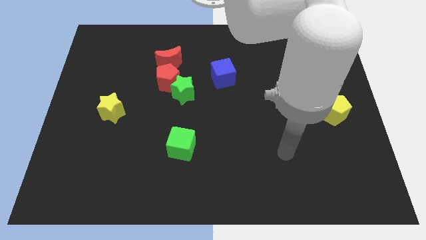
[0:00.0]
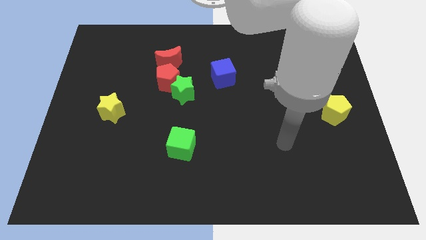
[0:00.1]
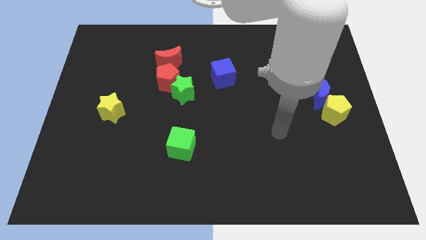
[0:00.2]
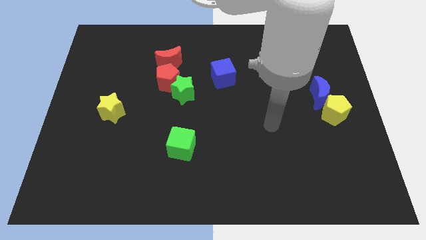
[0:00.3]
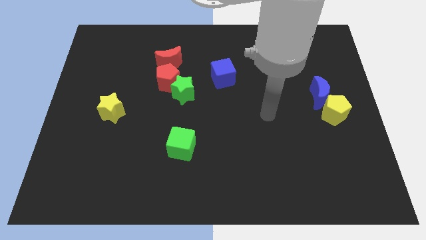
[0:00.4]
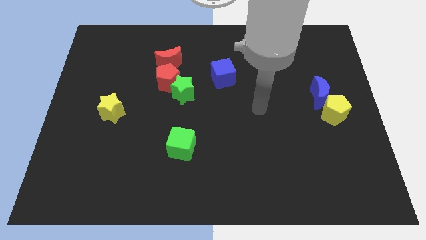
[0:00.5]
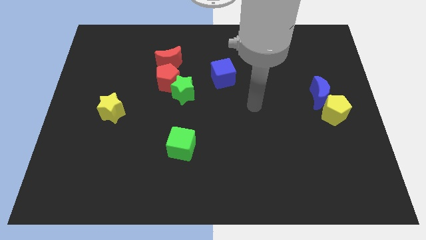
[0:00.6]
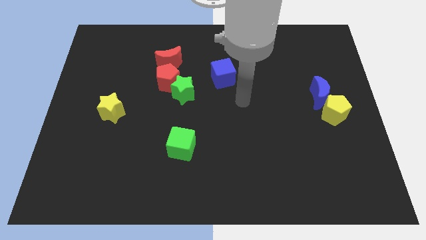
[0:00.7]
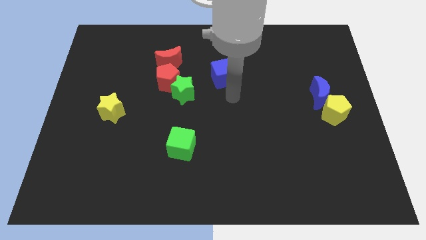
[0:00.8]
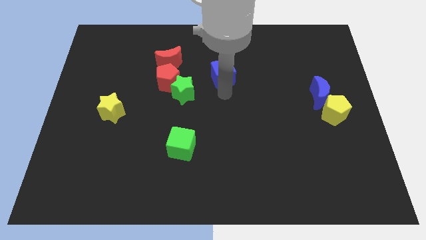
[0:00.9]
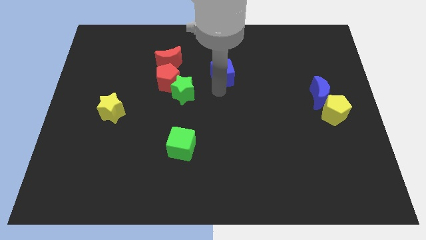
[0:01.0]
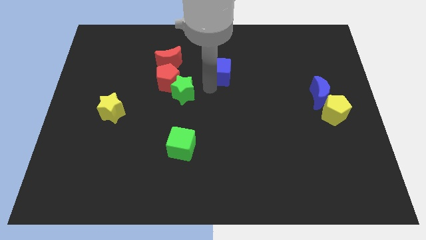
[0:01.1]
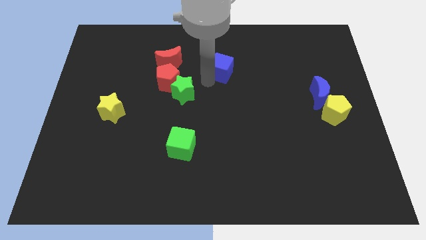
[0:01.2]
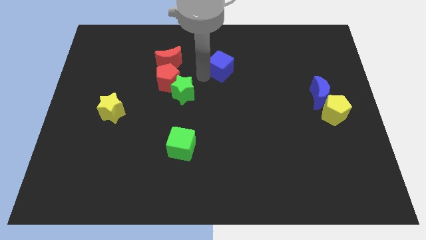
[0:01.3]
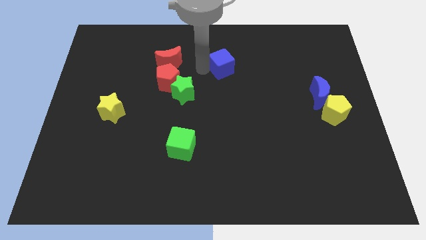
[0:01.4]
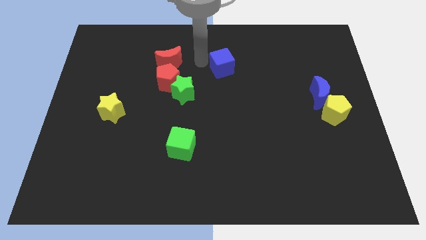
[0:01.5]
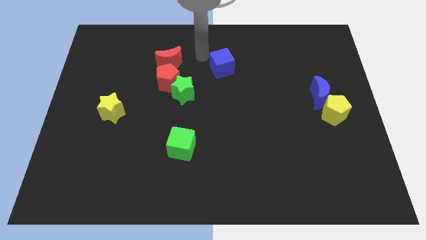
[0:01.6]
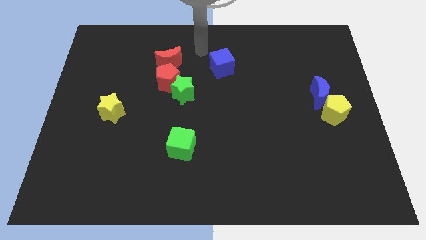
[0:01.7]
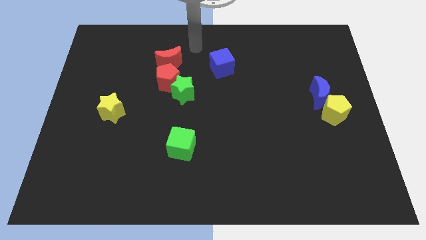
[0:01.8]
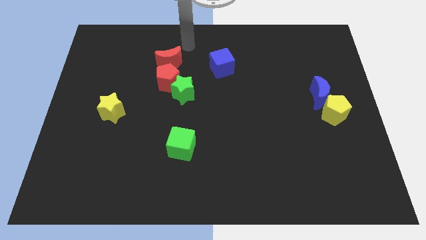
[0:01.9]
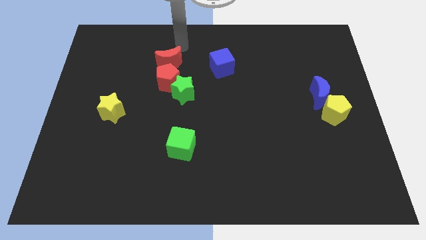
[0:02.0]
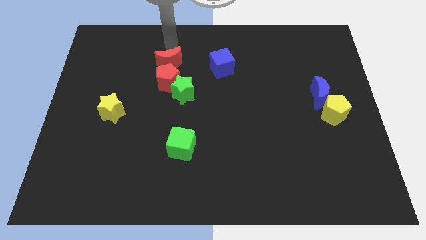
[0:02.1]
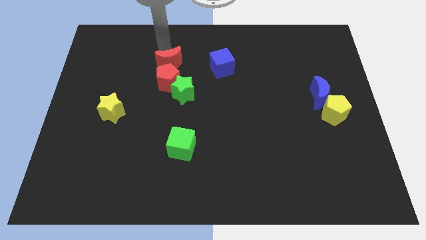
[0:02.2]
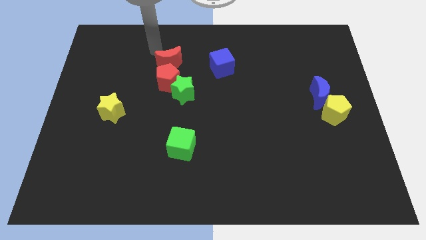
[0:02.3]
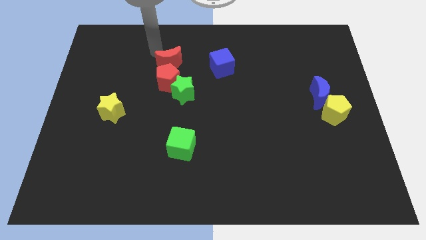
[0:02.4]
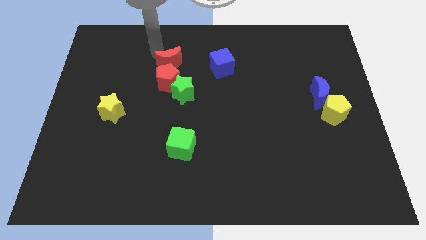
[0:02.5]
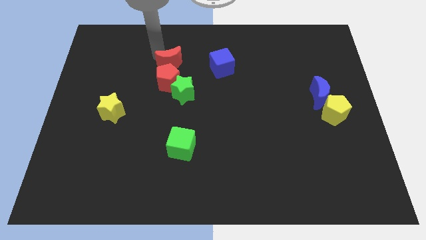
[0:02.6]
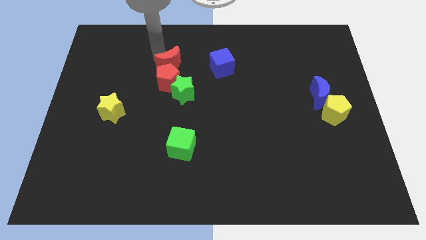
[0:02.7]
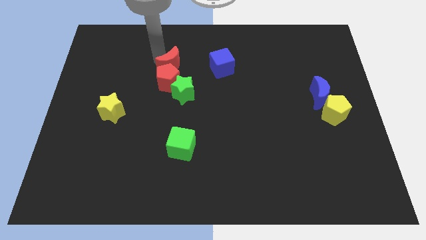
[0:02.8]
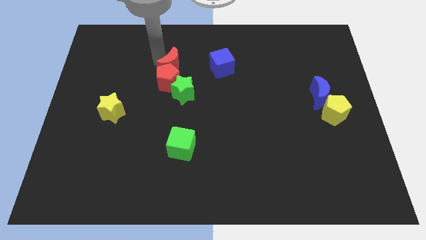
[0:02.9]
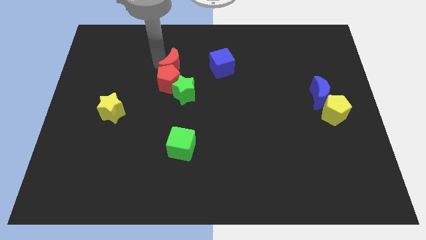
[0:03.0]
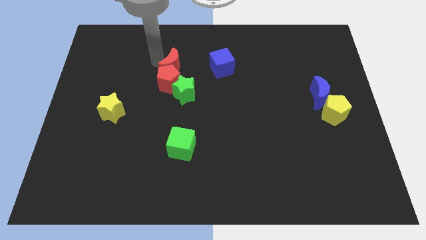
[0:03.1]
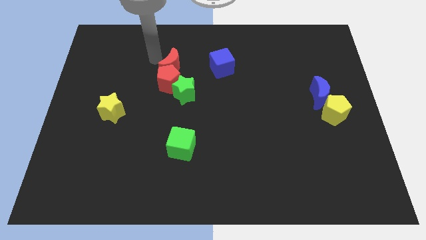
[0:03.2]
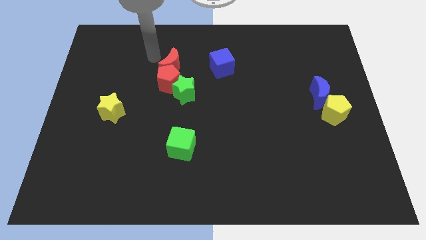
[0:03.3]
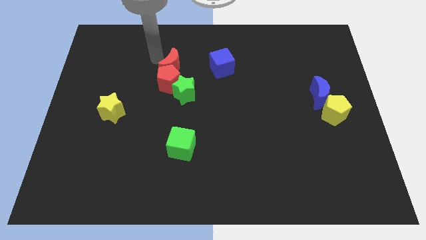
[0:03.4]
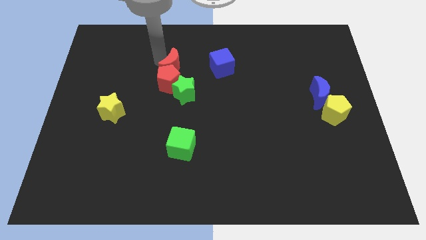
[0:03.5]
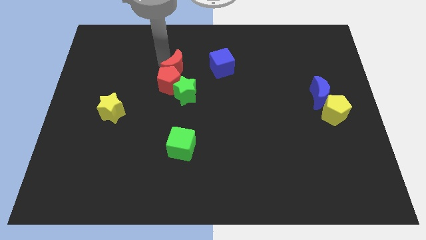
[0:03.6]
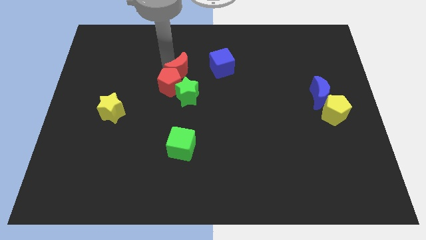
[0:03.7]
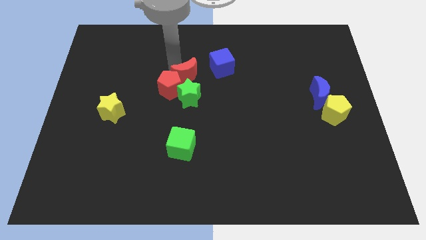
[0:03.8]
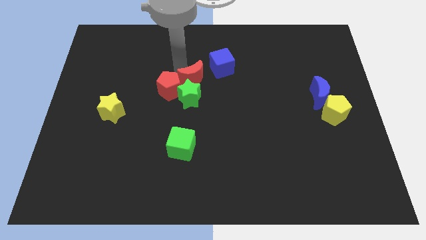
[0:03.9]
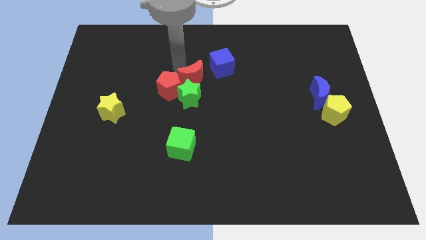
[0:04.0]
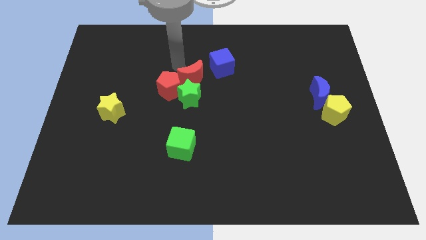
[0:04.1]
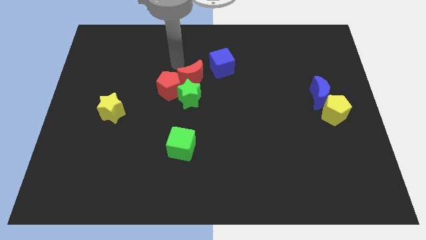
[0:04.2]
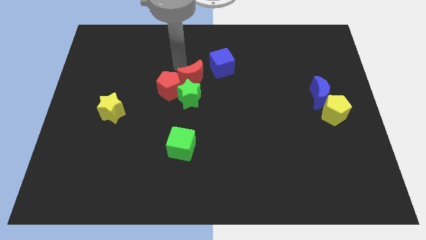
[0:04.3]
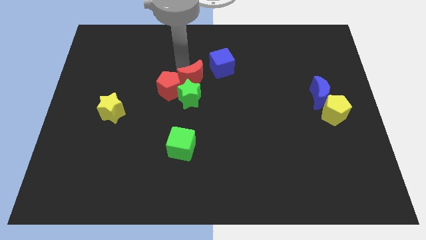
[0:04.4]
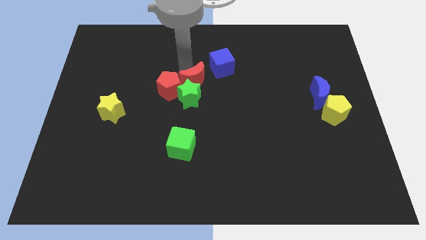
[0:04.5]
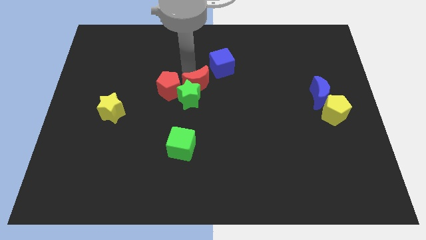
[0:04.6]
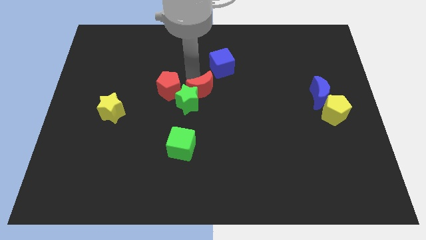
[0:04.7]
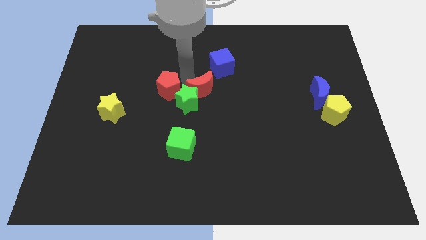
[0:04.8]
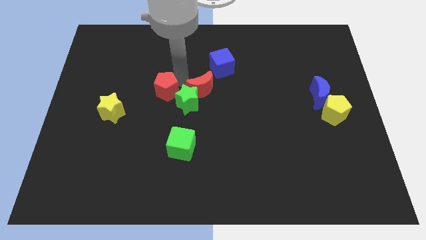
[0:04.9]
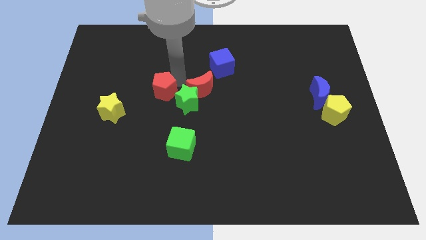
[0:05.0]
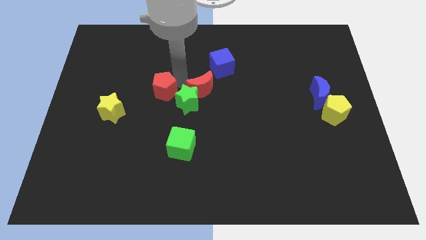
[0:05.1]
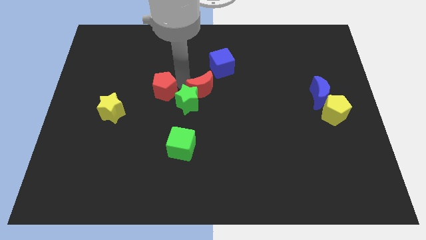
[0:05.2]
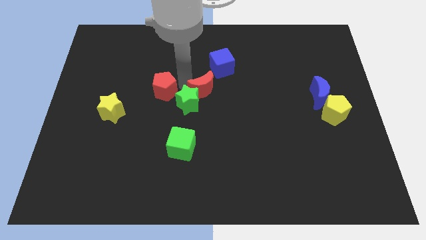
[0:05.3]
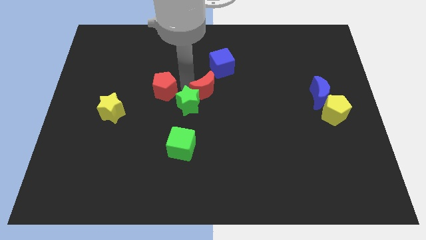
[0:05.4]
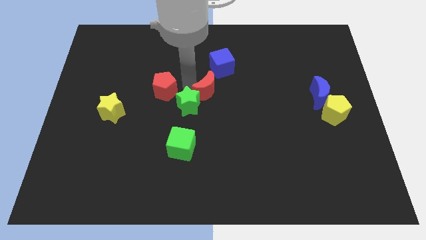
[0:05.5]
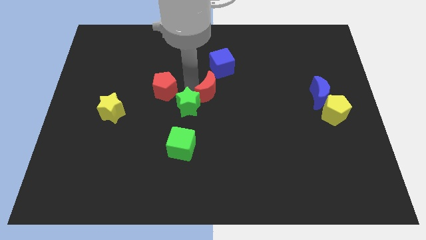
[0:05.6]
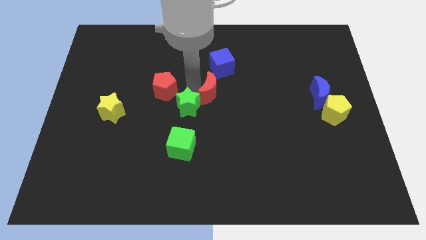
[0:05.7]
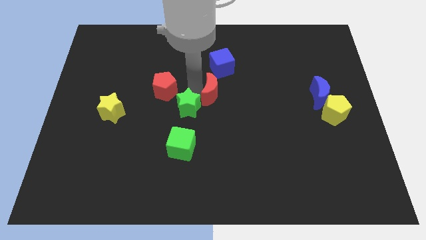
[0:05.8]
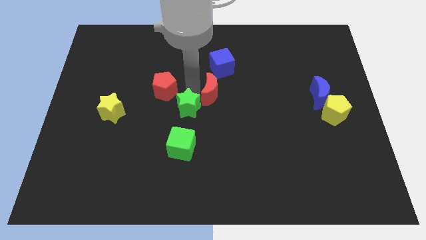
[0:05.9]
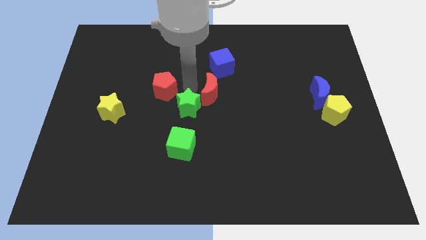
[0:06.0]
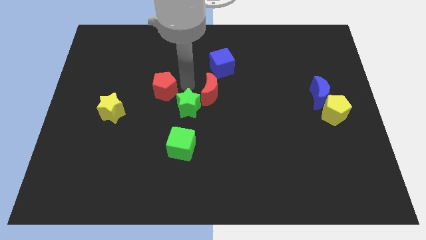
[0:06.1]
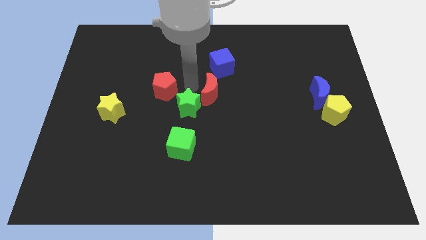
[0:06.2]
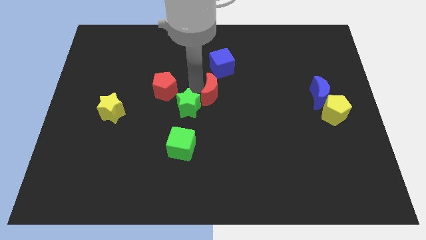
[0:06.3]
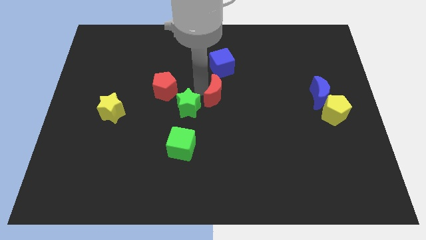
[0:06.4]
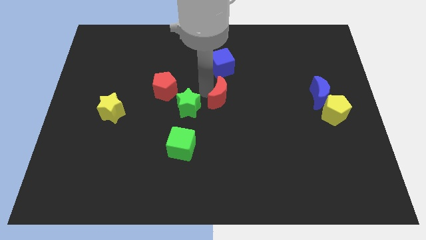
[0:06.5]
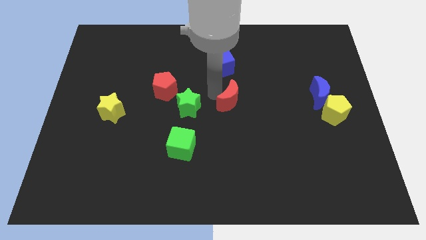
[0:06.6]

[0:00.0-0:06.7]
push the red moon diagonally down and right

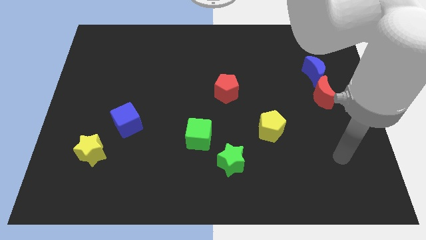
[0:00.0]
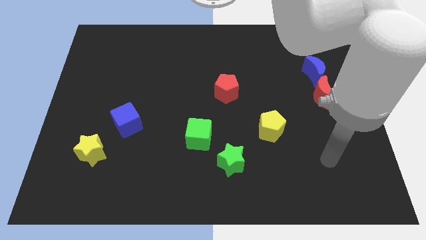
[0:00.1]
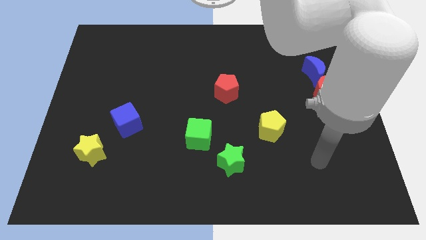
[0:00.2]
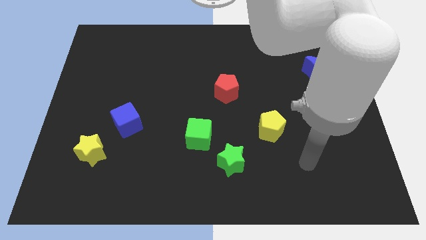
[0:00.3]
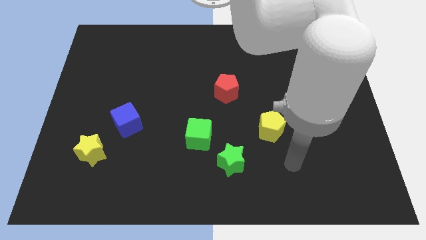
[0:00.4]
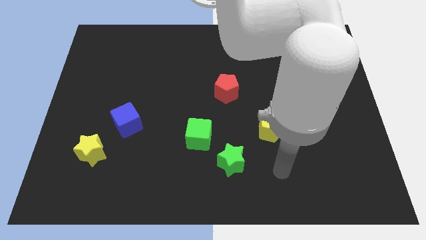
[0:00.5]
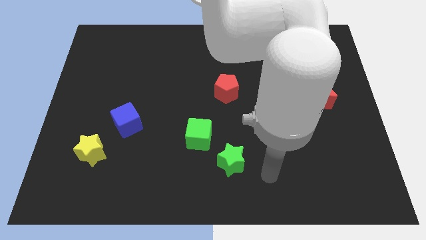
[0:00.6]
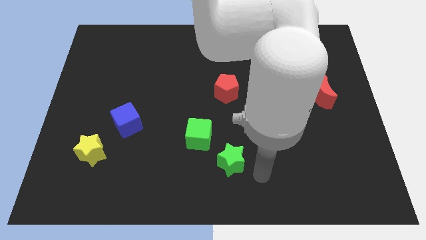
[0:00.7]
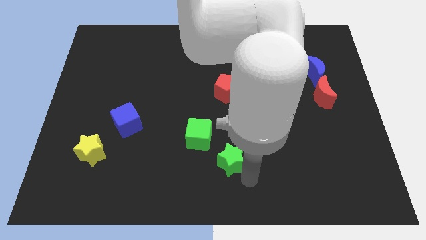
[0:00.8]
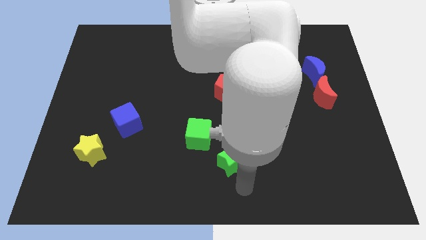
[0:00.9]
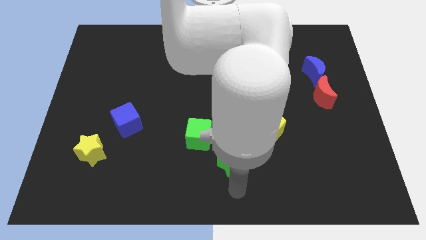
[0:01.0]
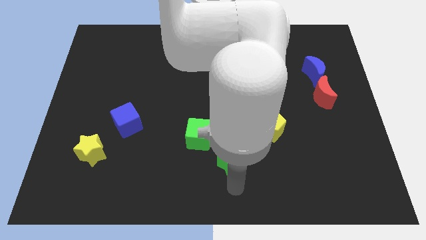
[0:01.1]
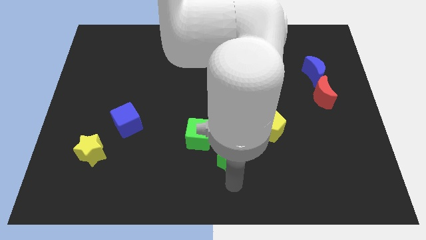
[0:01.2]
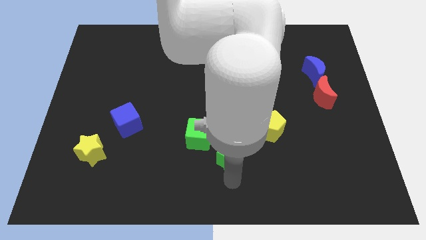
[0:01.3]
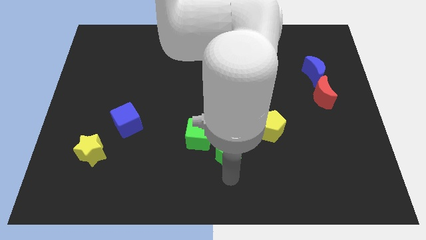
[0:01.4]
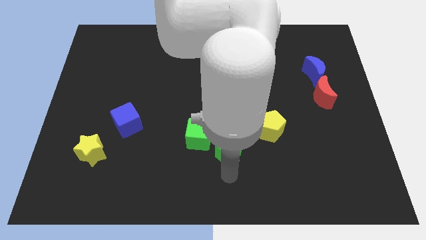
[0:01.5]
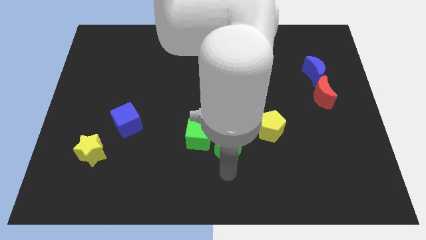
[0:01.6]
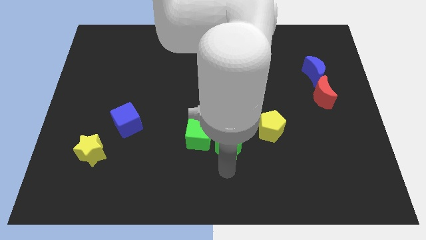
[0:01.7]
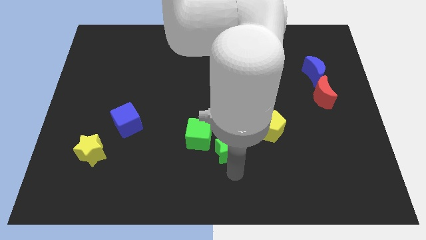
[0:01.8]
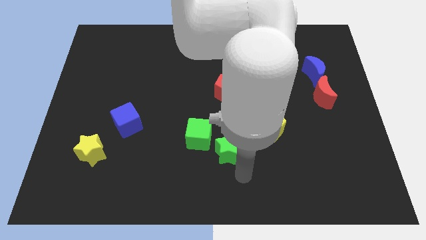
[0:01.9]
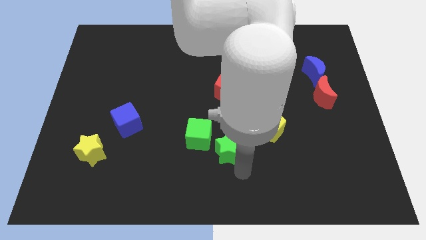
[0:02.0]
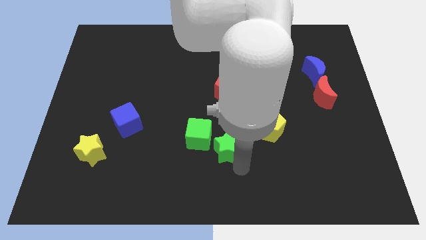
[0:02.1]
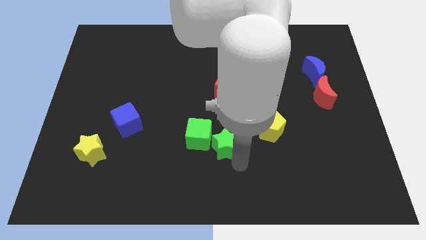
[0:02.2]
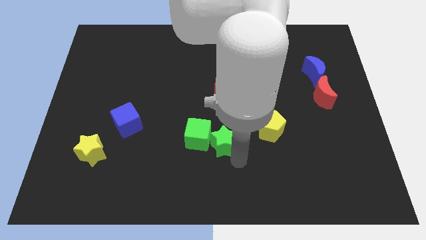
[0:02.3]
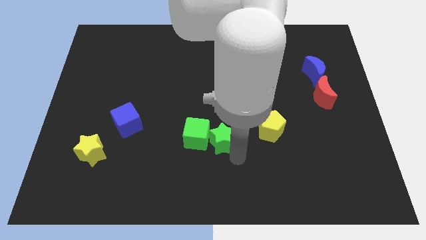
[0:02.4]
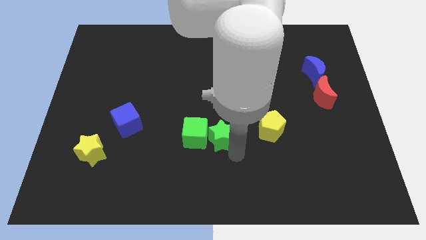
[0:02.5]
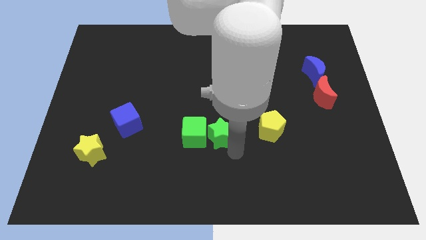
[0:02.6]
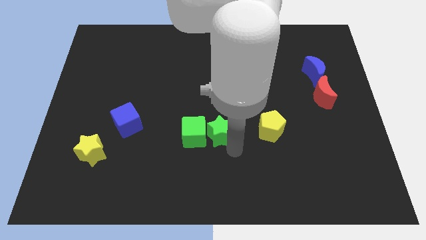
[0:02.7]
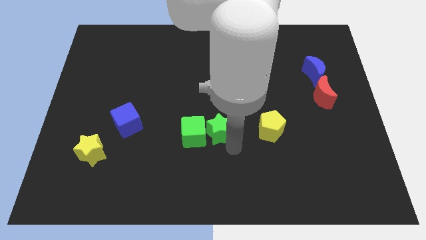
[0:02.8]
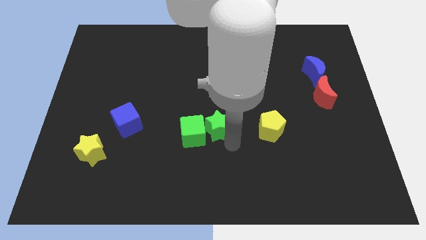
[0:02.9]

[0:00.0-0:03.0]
slightly move the green star diagonally upwards and to the left
